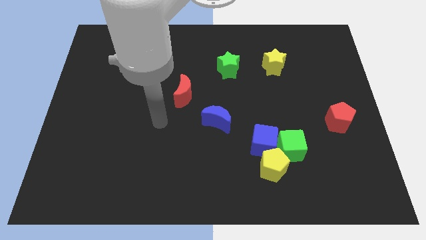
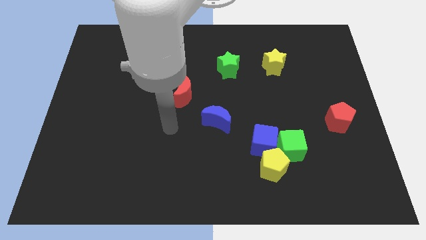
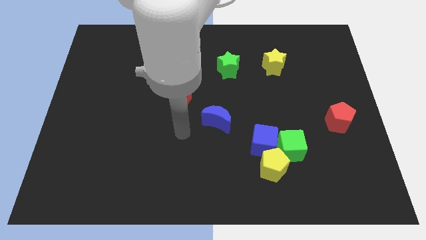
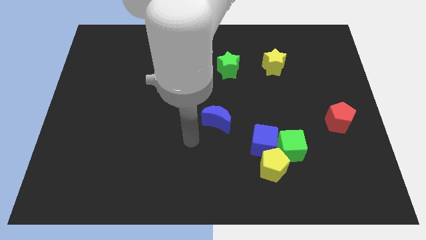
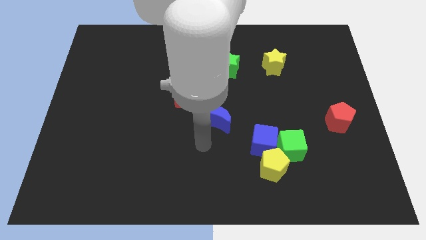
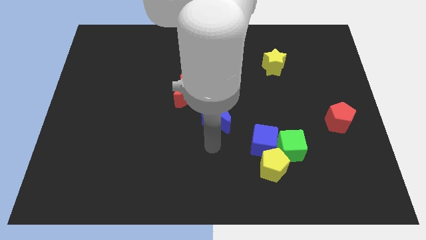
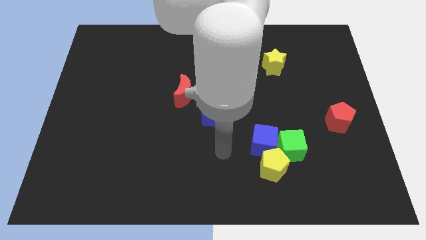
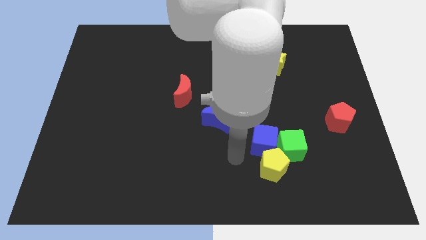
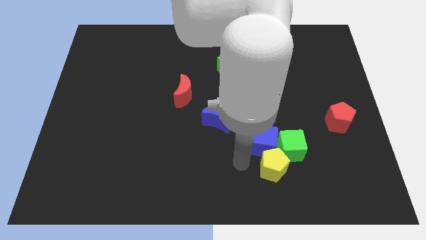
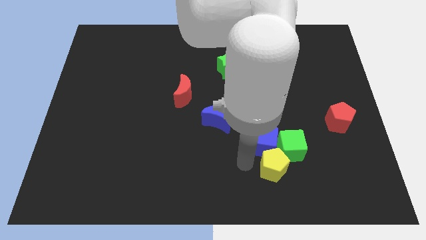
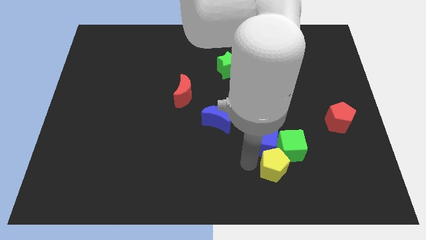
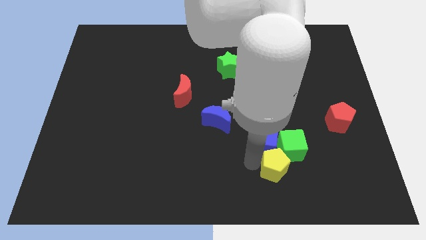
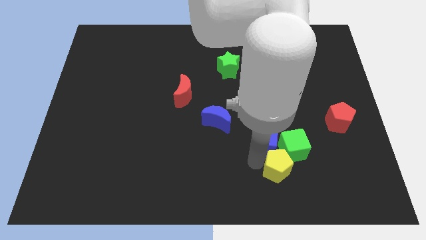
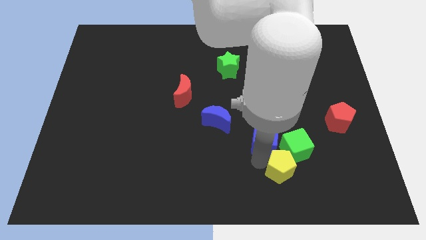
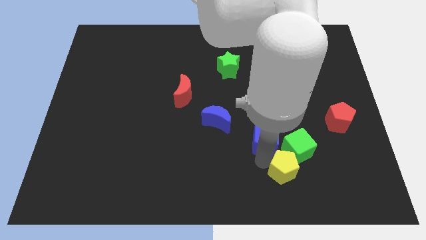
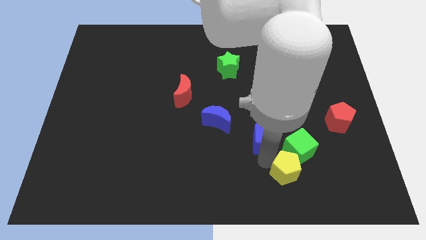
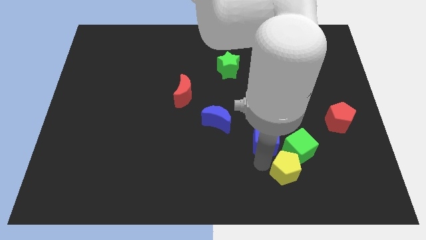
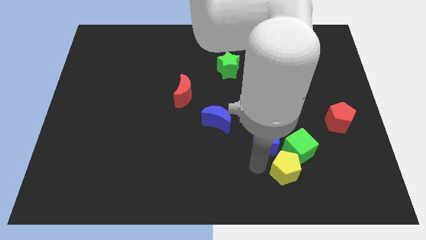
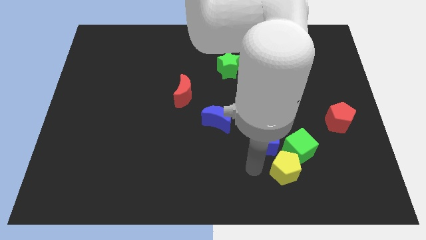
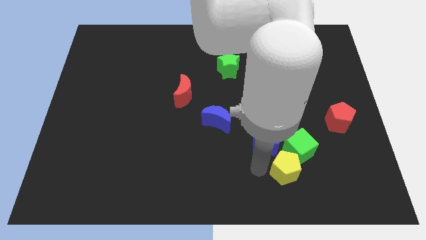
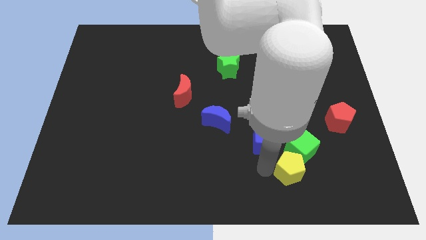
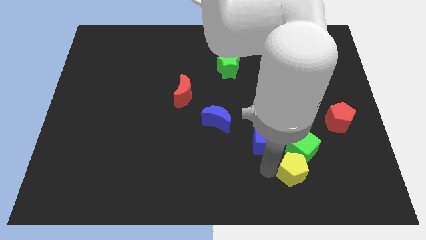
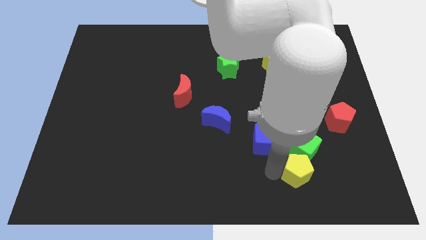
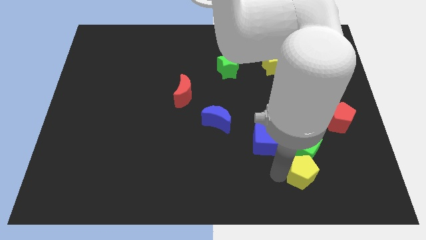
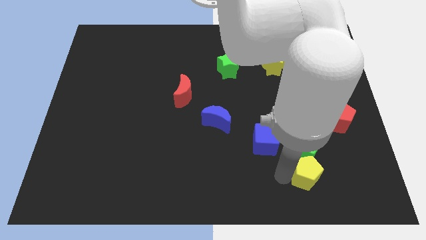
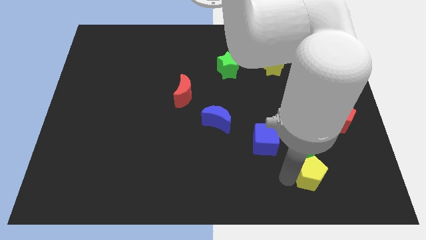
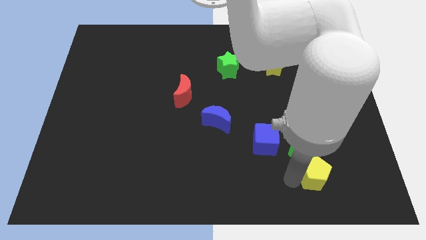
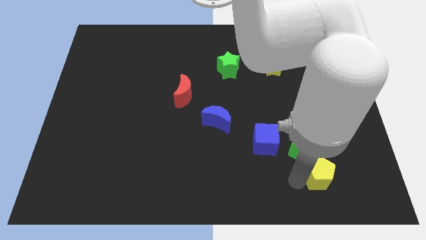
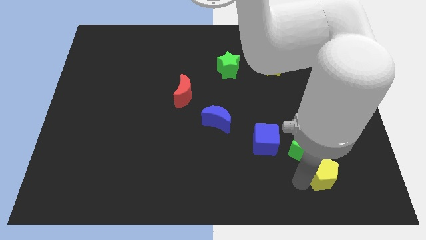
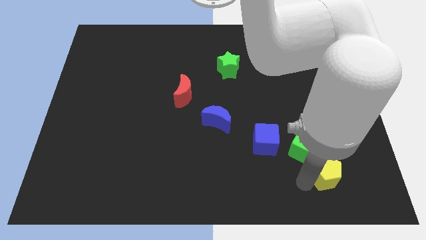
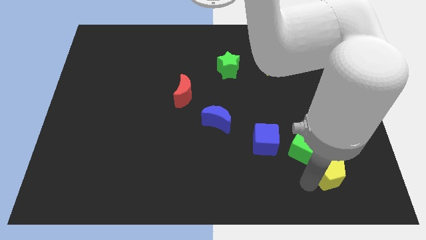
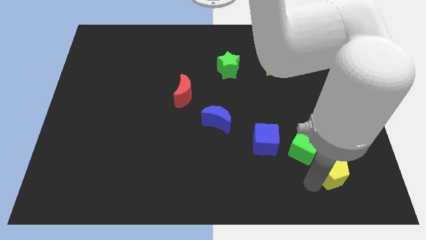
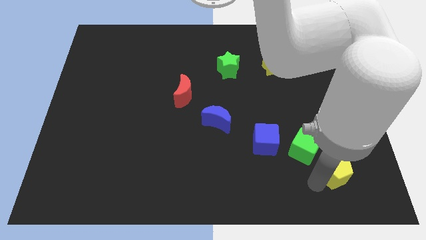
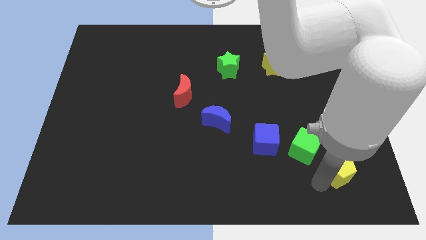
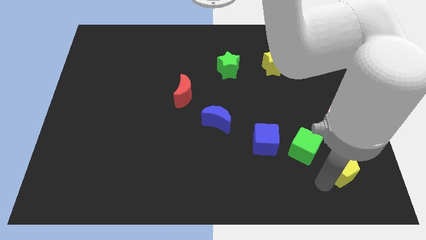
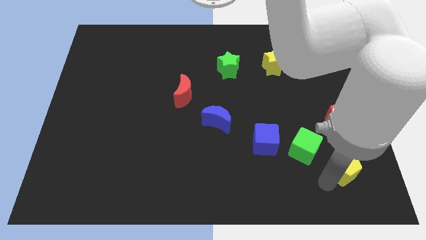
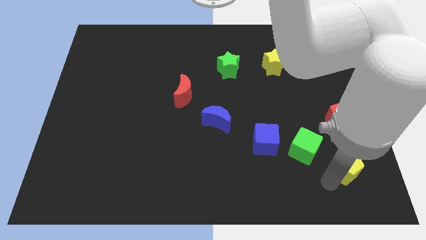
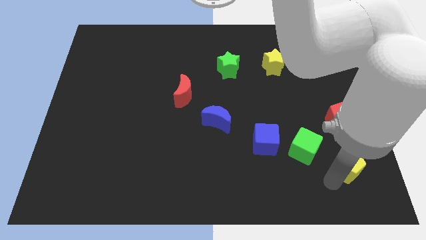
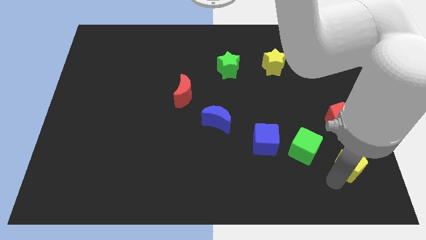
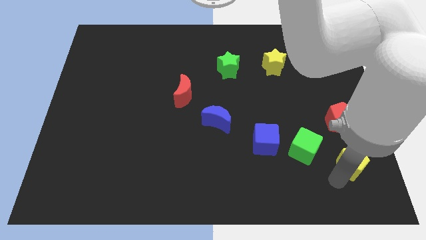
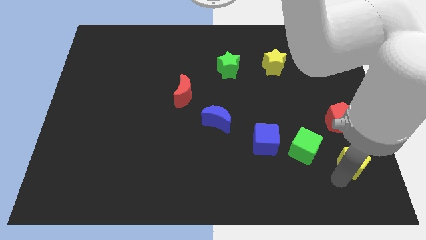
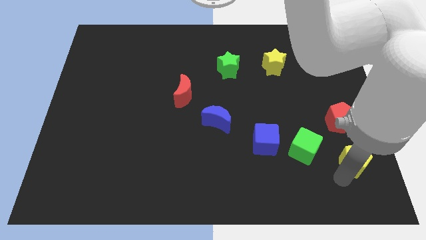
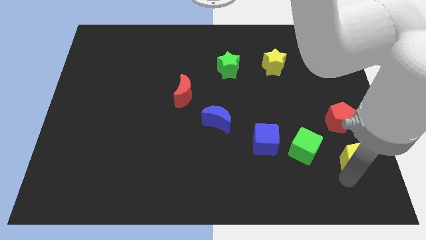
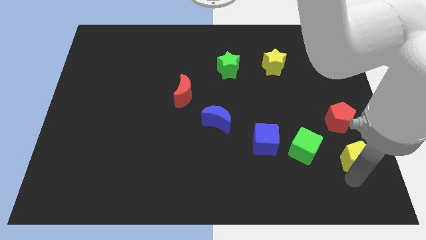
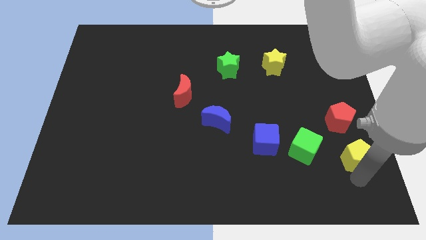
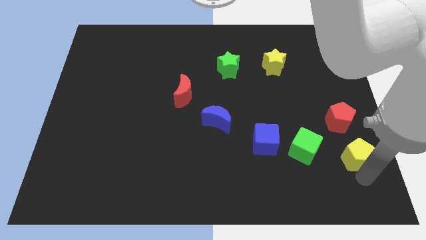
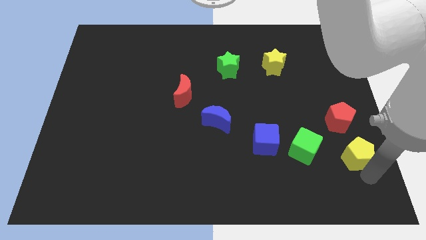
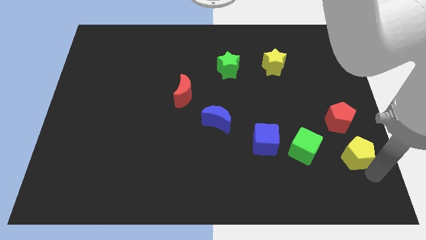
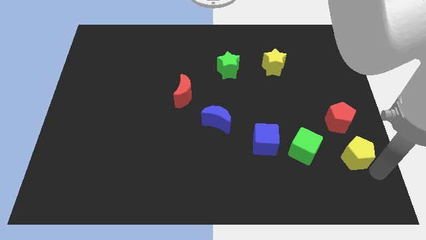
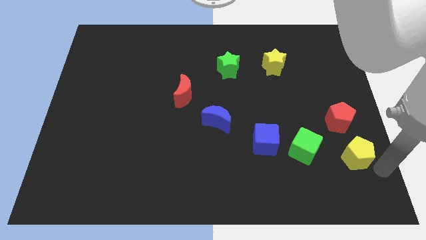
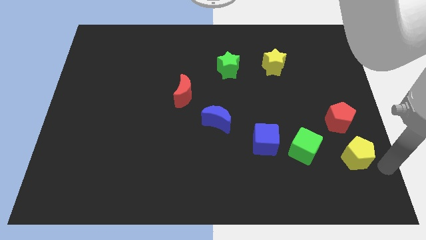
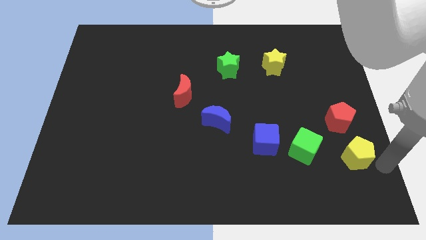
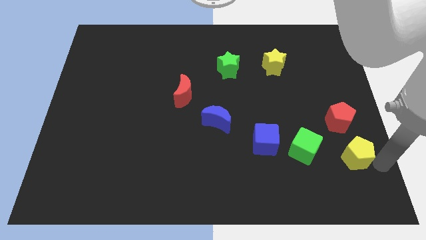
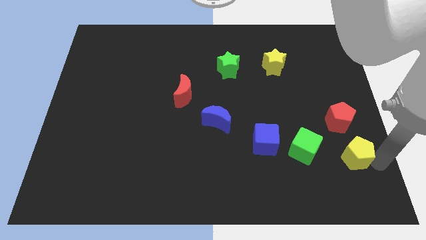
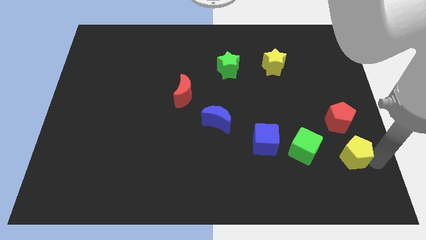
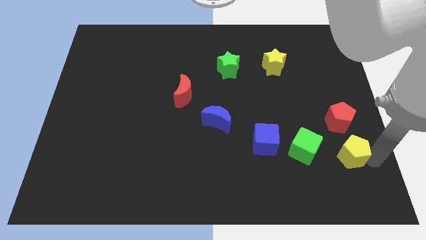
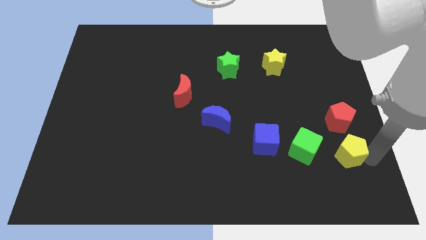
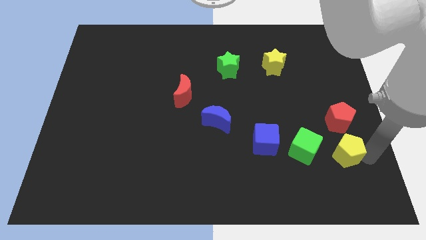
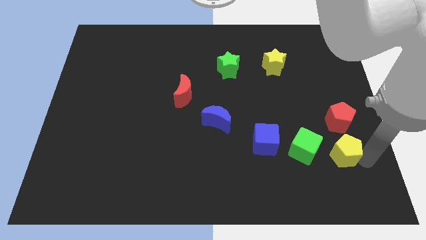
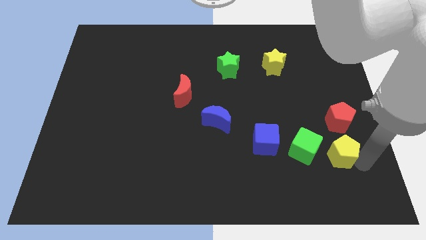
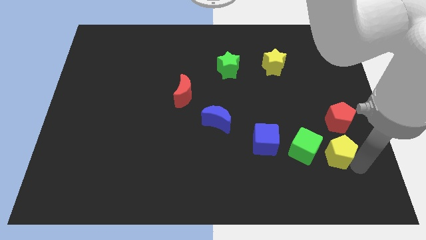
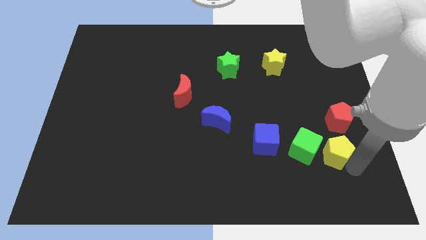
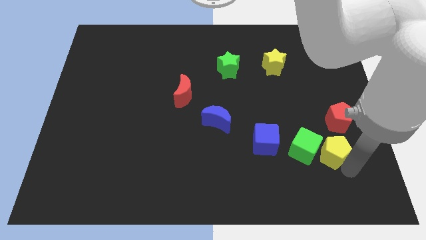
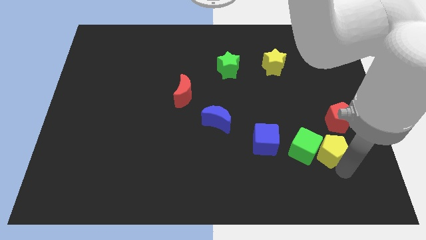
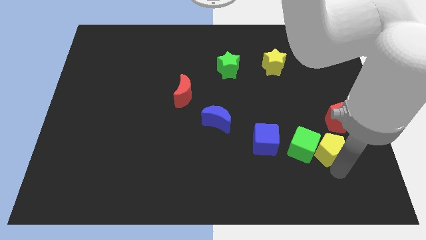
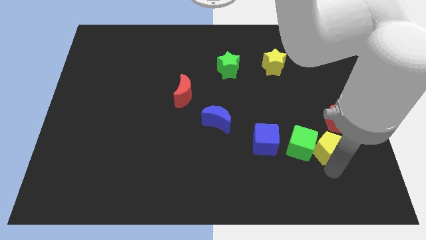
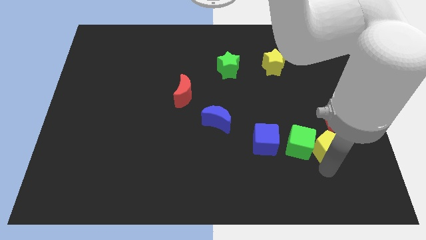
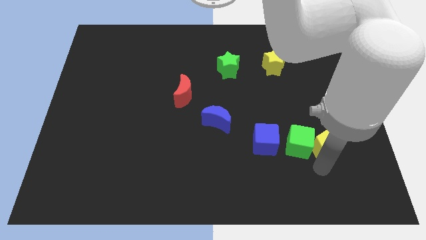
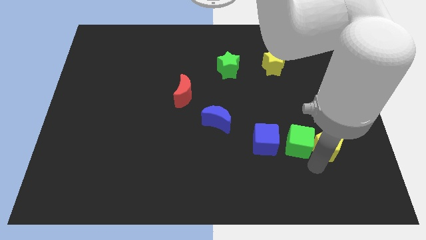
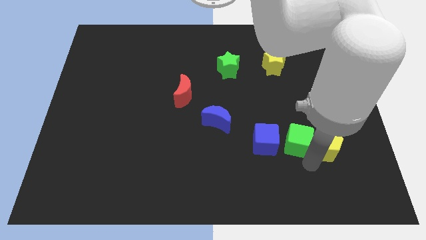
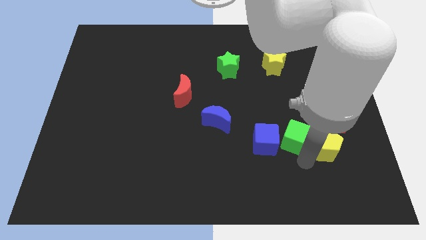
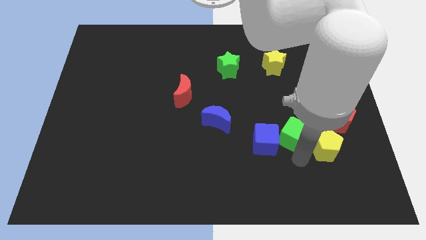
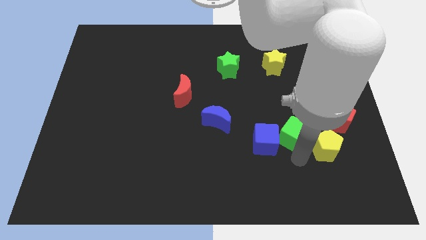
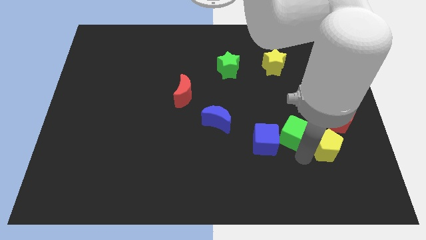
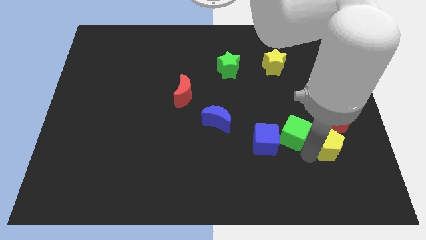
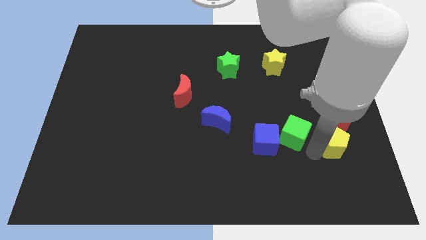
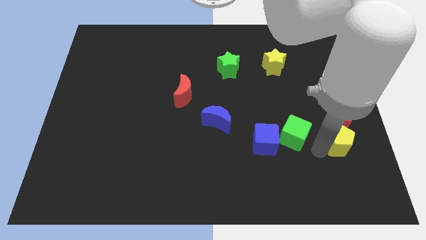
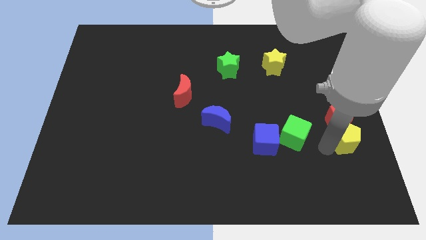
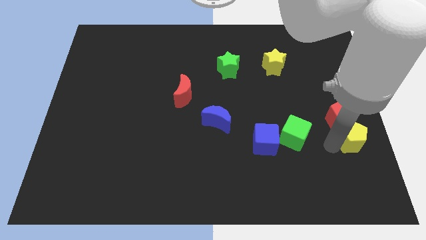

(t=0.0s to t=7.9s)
push the yellow pentagon to the right side

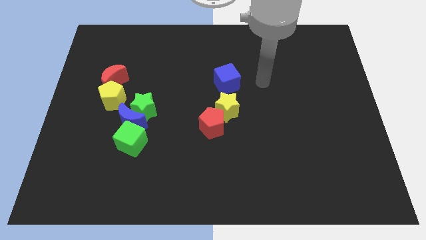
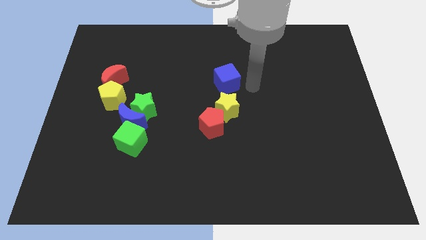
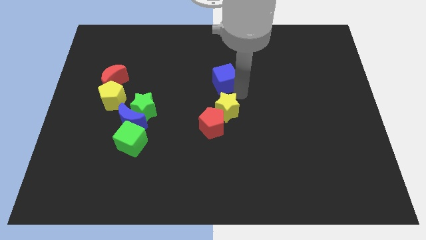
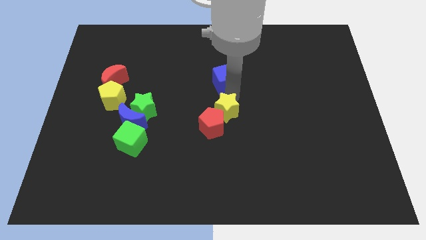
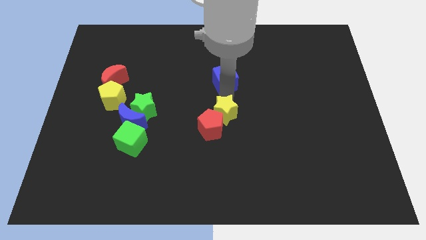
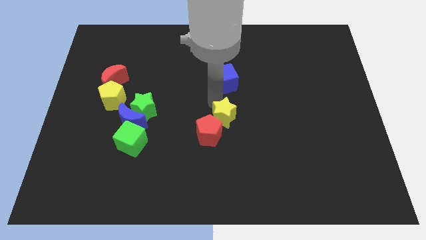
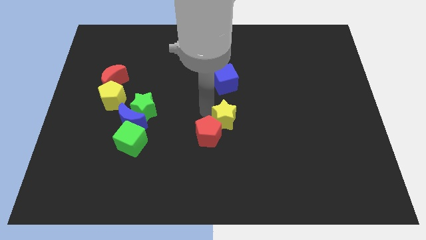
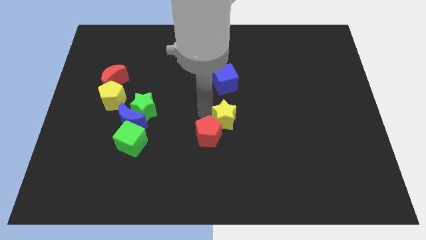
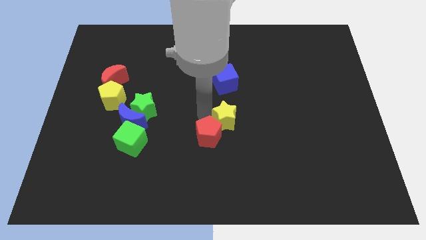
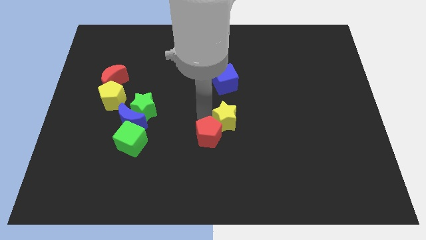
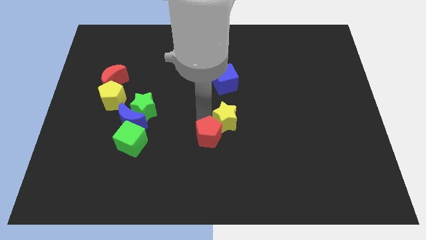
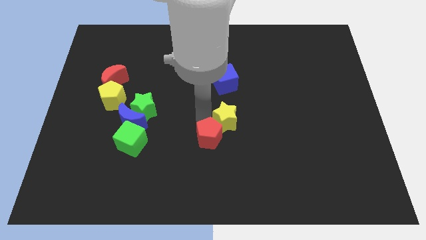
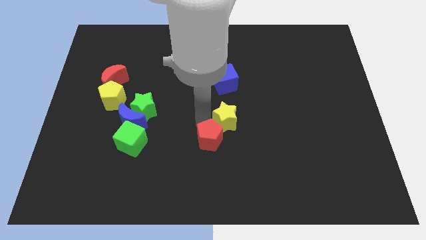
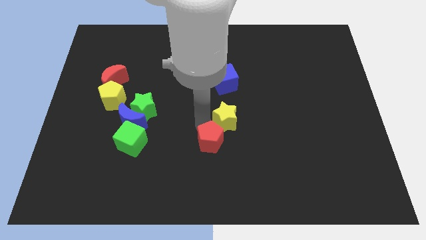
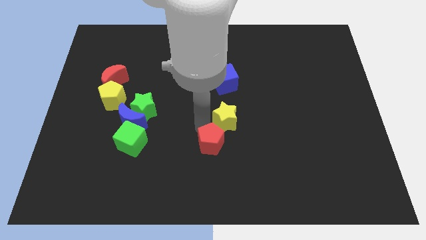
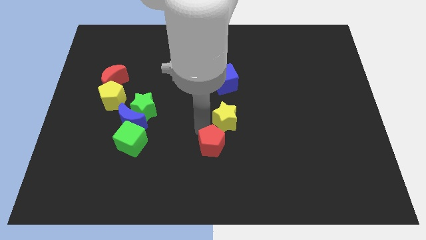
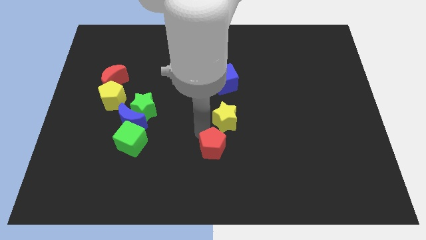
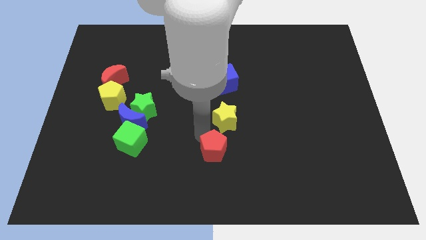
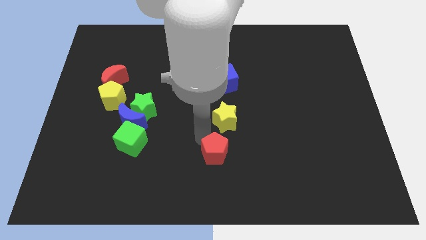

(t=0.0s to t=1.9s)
push the red pentagon to the bottom side
